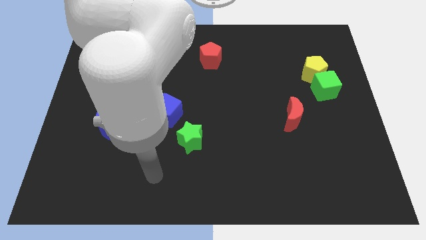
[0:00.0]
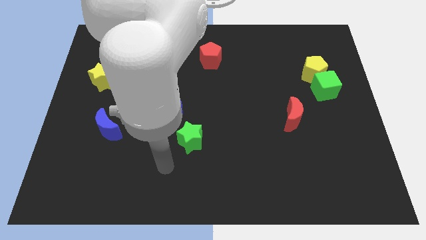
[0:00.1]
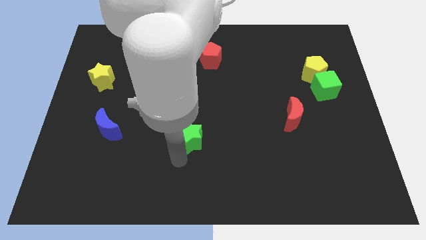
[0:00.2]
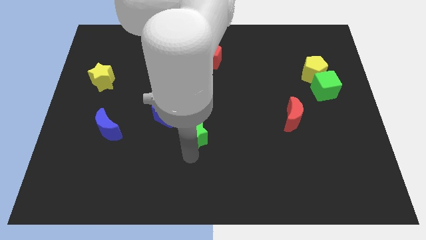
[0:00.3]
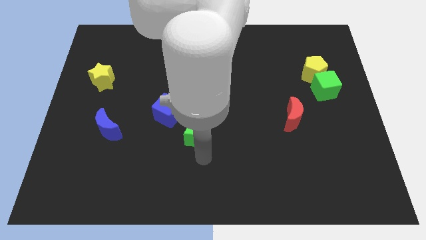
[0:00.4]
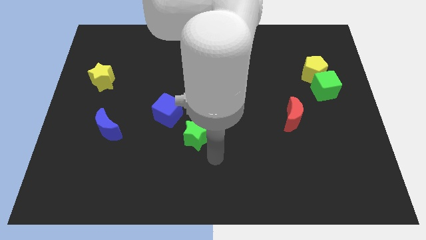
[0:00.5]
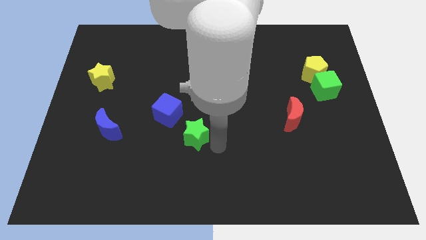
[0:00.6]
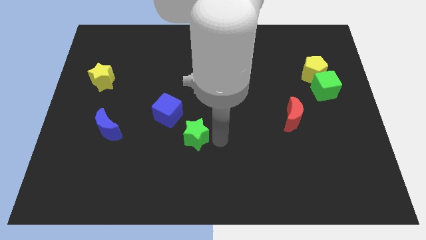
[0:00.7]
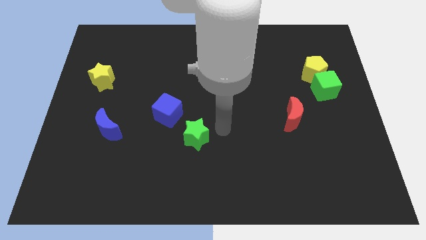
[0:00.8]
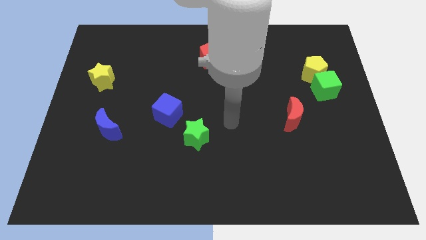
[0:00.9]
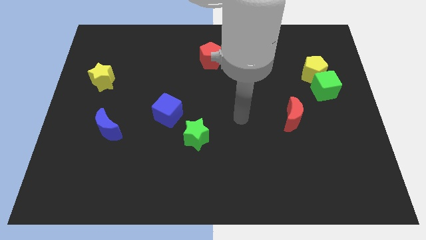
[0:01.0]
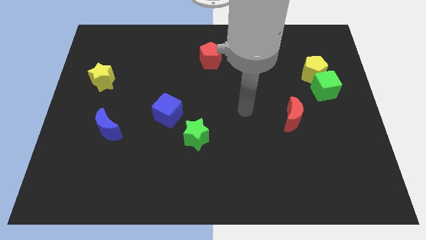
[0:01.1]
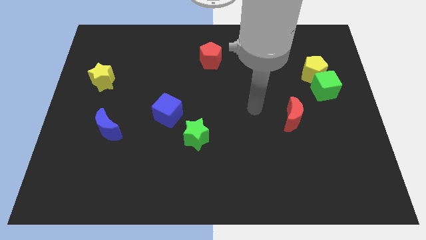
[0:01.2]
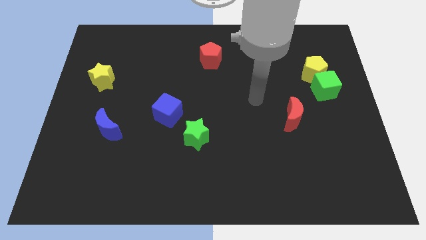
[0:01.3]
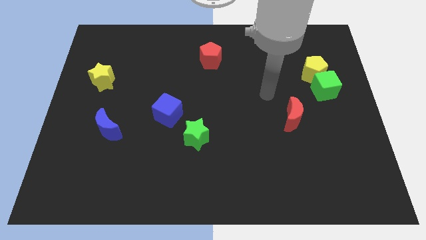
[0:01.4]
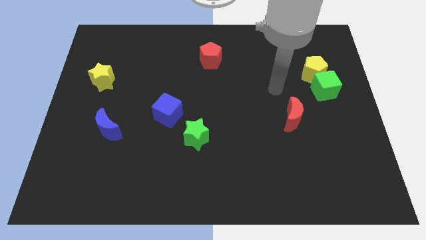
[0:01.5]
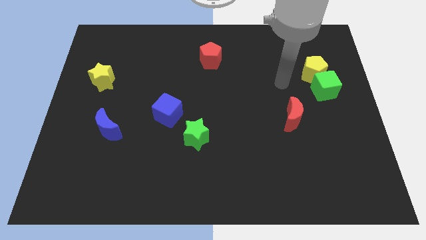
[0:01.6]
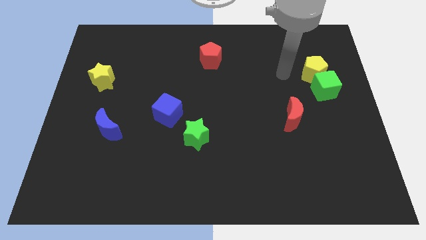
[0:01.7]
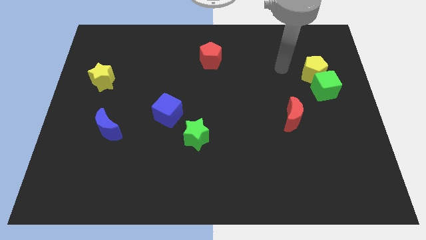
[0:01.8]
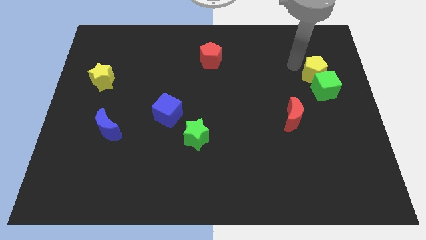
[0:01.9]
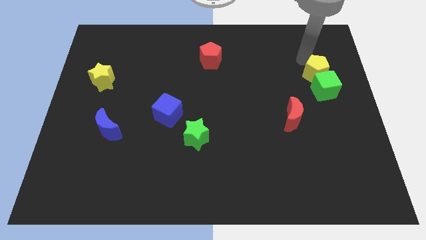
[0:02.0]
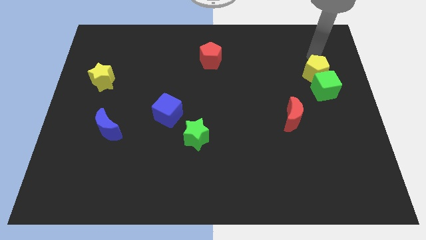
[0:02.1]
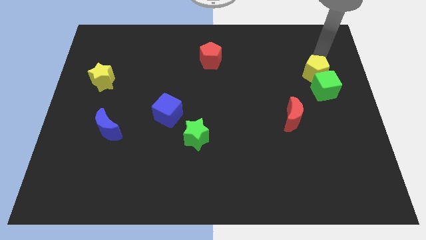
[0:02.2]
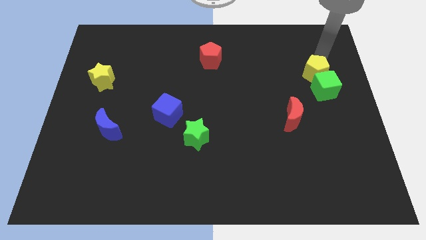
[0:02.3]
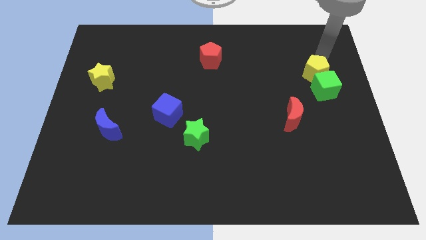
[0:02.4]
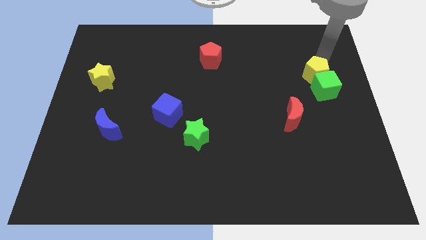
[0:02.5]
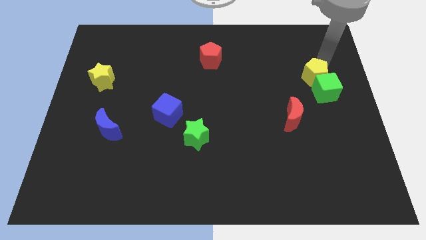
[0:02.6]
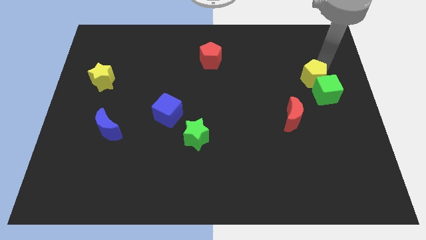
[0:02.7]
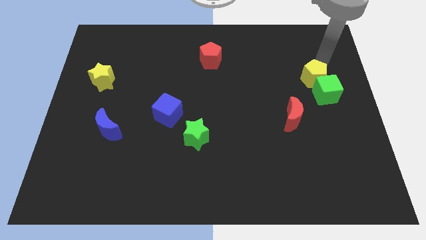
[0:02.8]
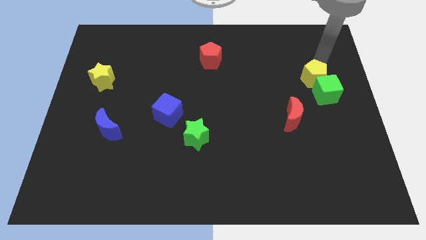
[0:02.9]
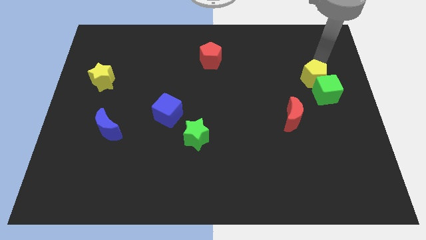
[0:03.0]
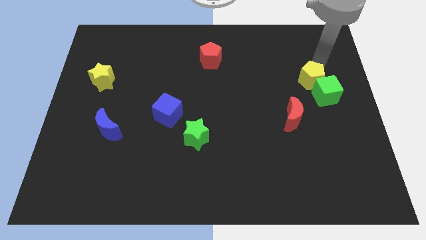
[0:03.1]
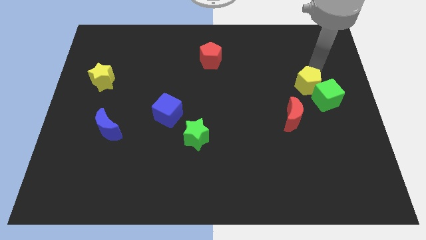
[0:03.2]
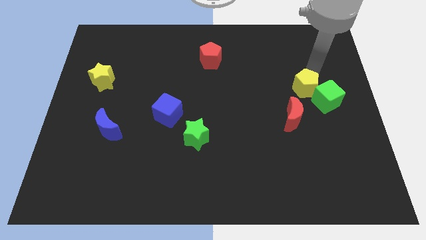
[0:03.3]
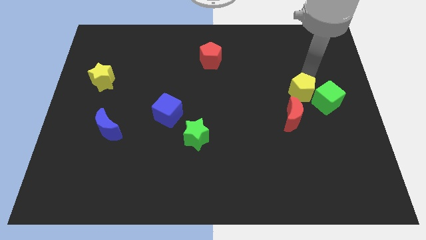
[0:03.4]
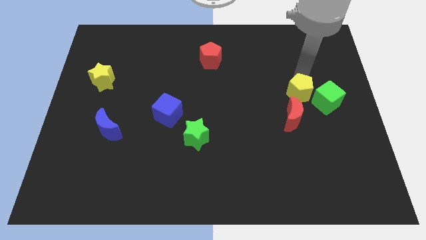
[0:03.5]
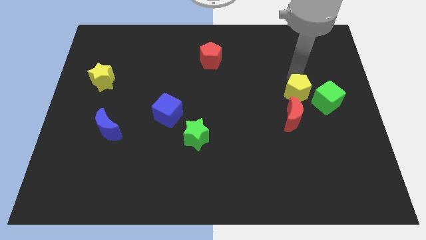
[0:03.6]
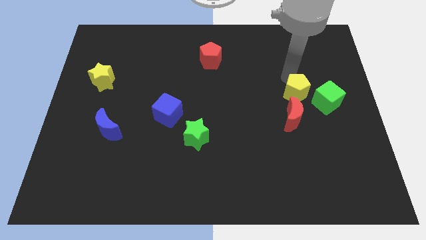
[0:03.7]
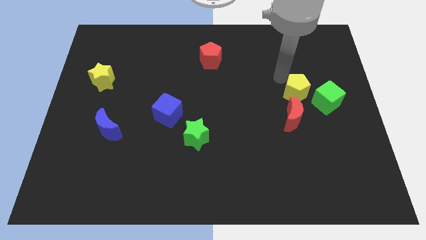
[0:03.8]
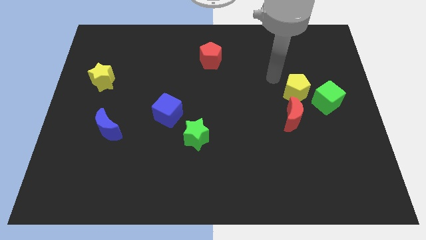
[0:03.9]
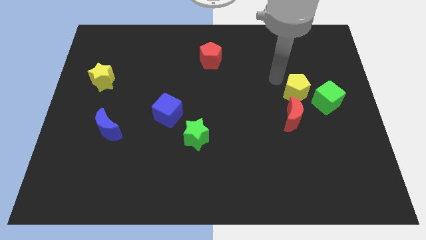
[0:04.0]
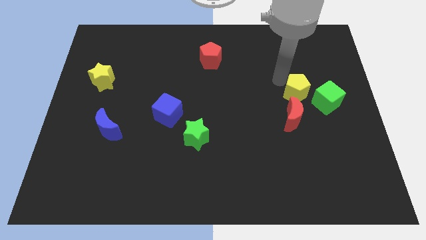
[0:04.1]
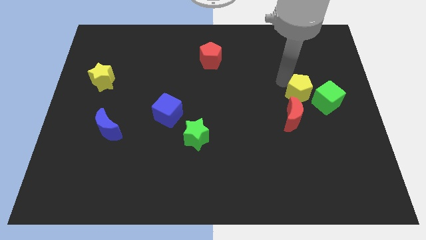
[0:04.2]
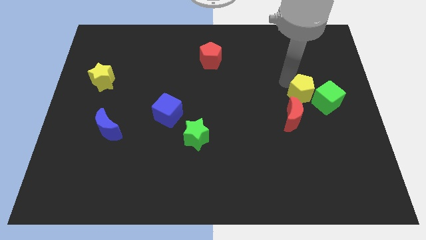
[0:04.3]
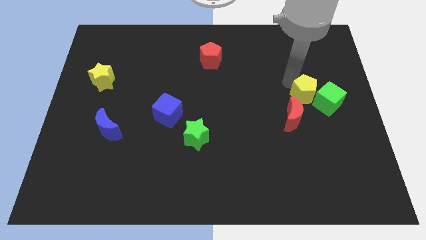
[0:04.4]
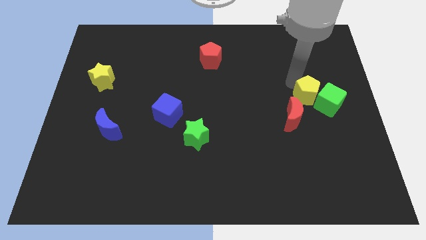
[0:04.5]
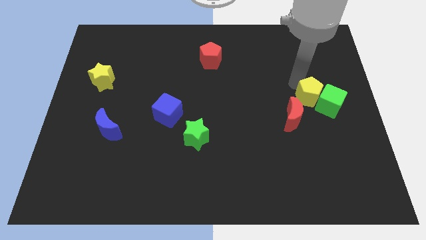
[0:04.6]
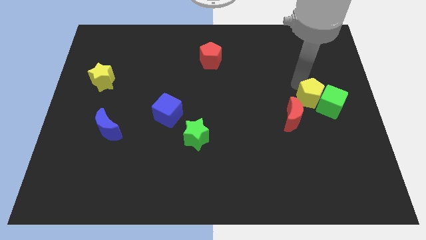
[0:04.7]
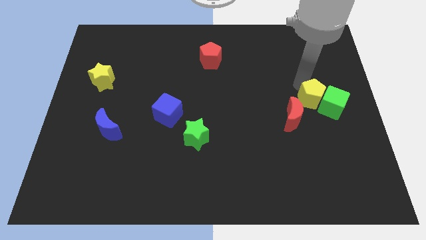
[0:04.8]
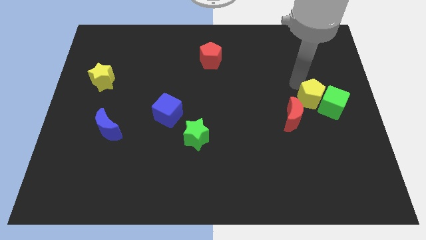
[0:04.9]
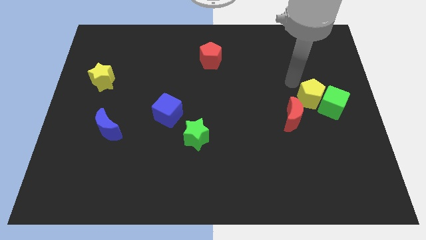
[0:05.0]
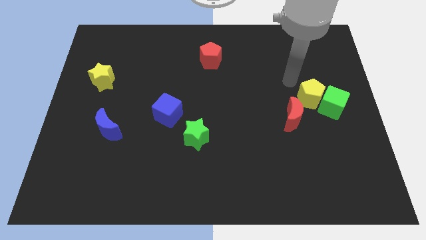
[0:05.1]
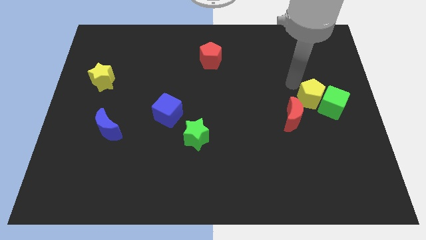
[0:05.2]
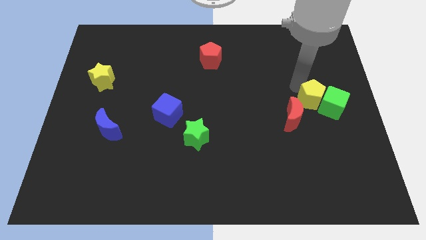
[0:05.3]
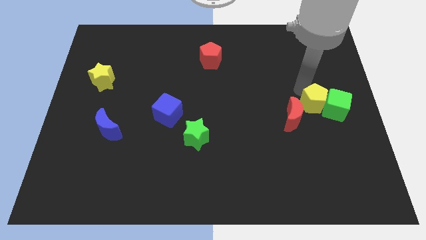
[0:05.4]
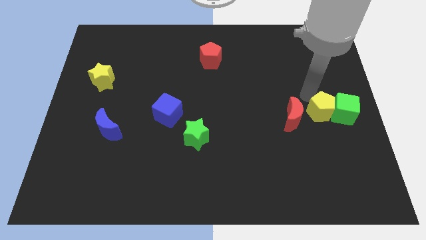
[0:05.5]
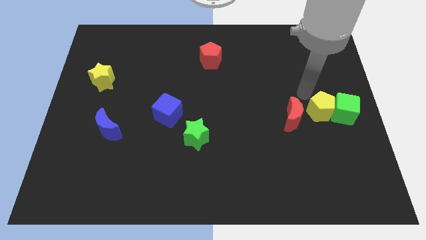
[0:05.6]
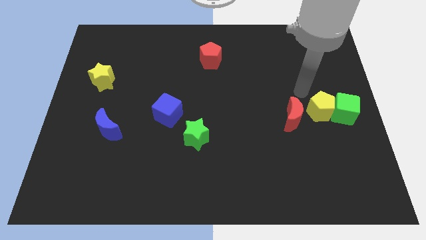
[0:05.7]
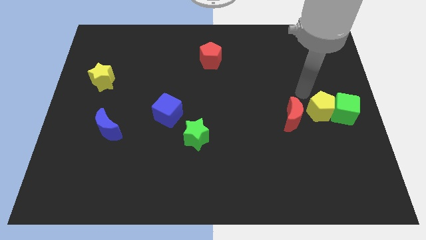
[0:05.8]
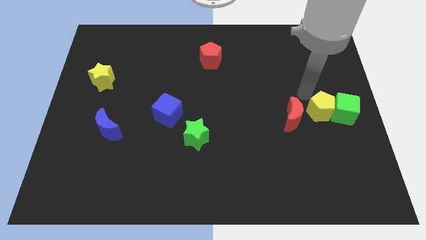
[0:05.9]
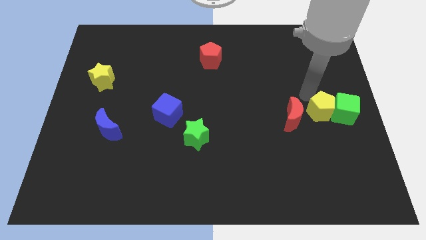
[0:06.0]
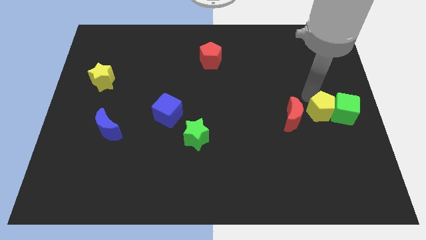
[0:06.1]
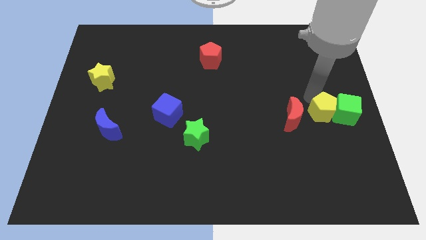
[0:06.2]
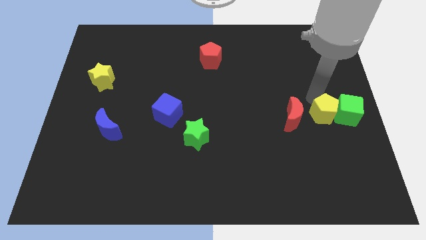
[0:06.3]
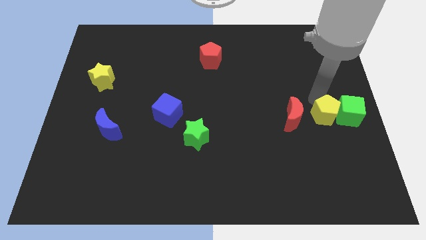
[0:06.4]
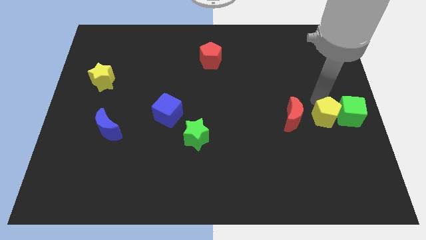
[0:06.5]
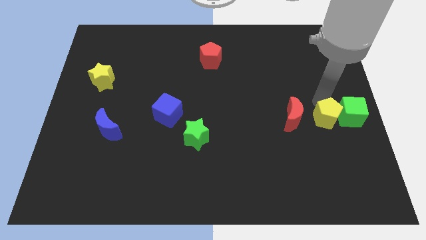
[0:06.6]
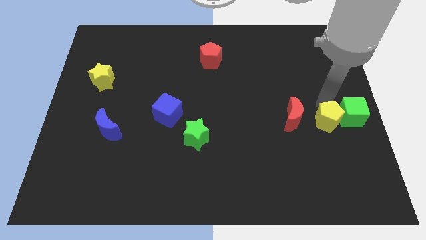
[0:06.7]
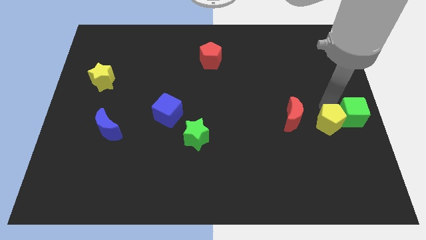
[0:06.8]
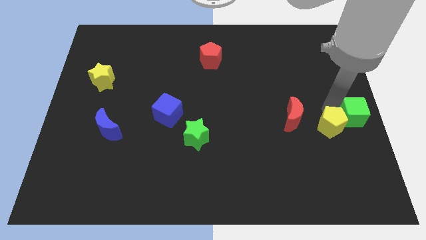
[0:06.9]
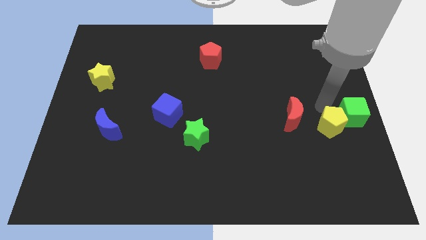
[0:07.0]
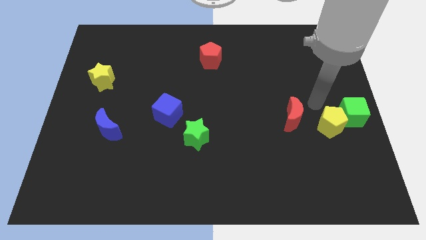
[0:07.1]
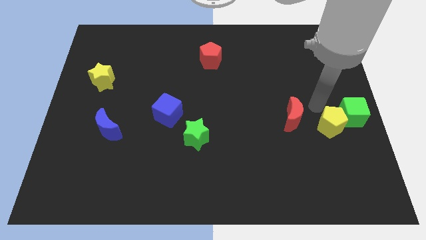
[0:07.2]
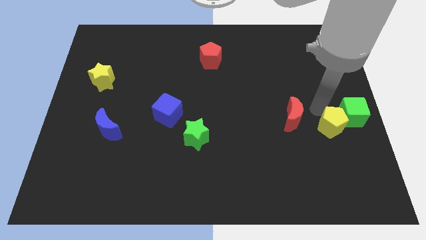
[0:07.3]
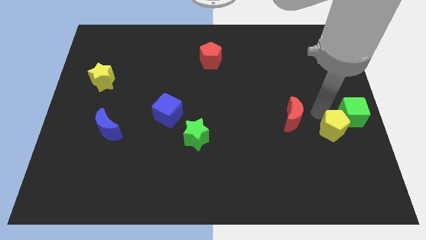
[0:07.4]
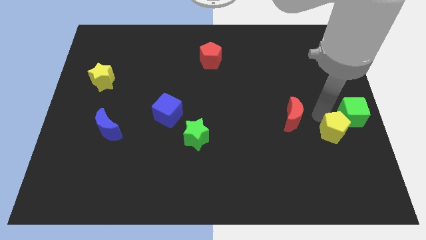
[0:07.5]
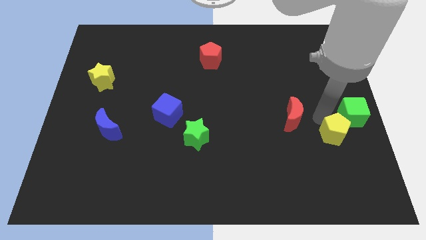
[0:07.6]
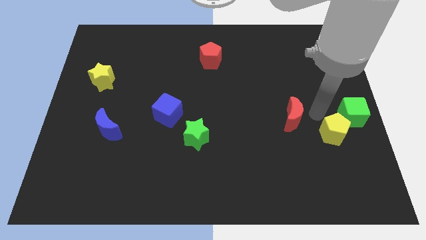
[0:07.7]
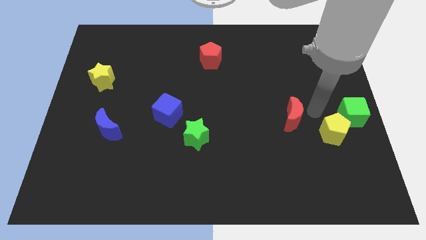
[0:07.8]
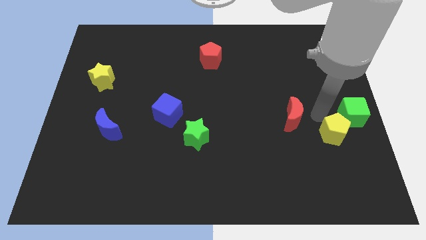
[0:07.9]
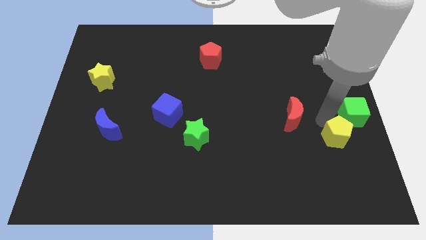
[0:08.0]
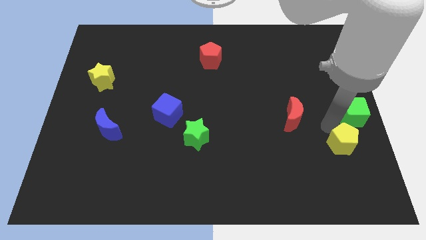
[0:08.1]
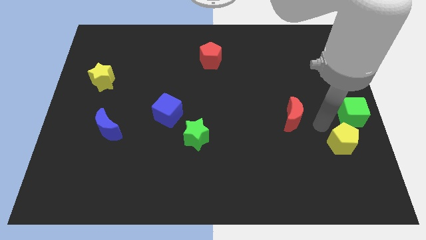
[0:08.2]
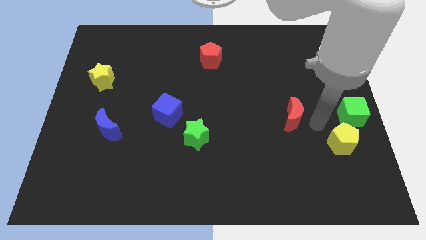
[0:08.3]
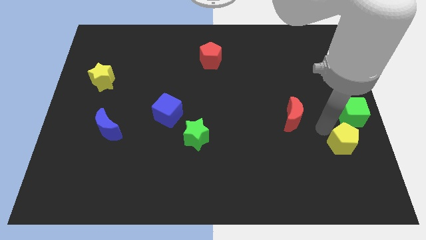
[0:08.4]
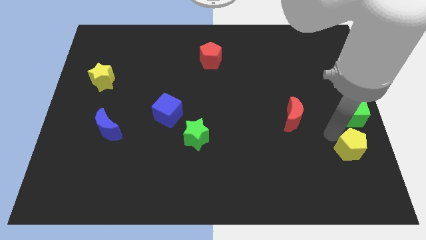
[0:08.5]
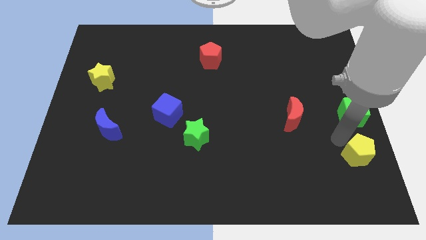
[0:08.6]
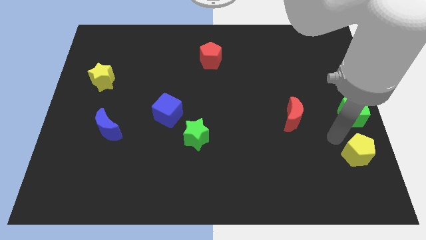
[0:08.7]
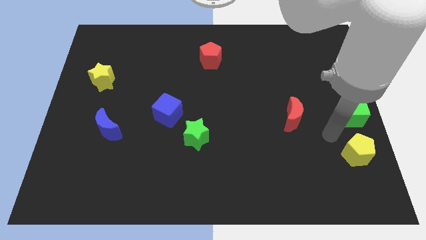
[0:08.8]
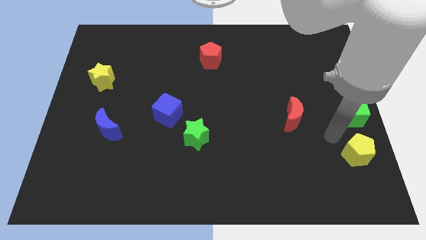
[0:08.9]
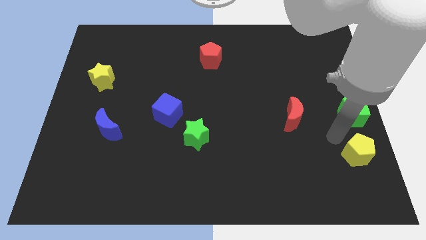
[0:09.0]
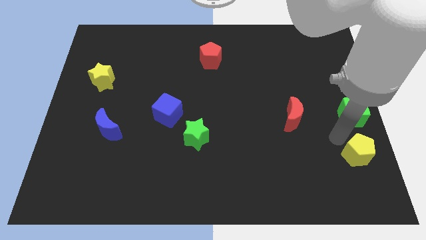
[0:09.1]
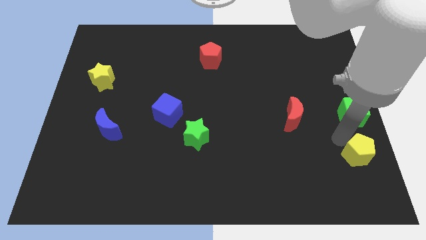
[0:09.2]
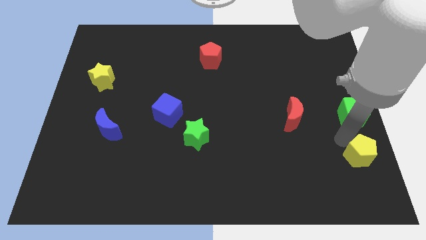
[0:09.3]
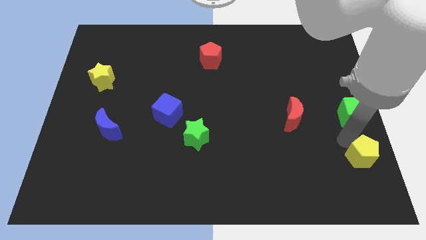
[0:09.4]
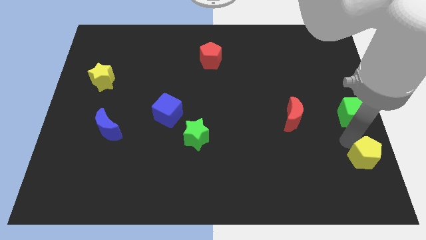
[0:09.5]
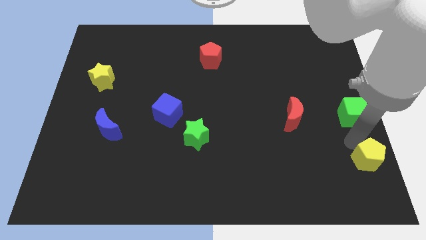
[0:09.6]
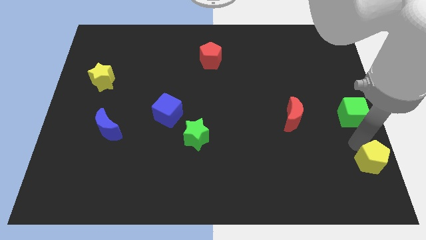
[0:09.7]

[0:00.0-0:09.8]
slide the yellow pentagon to the lower right corner
